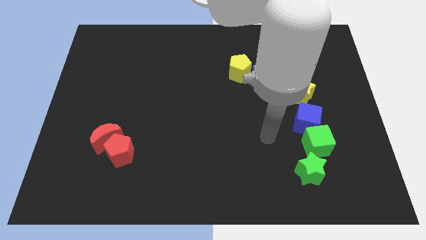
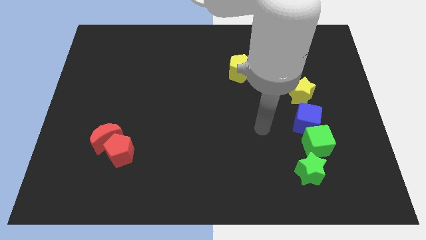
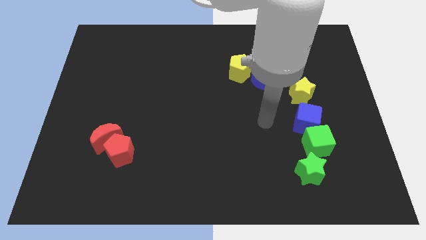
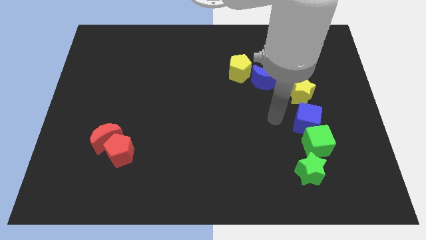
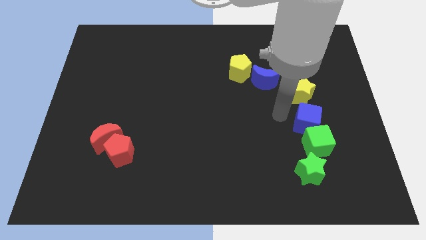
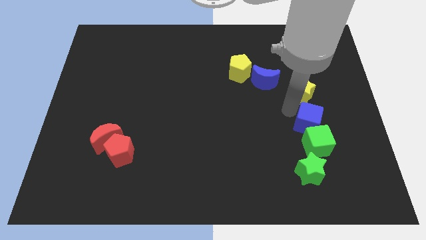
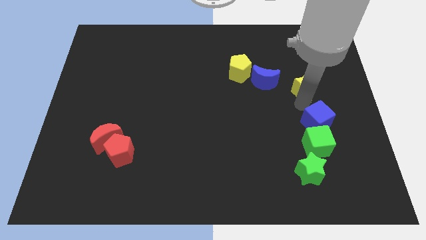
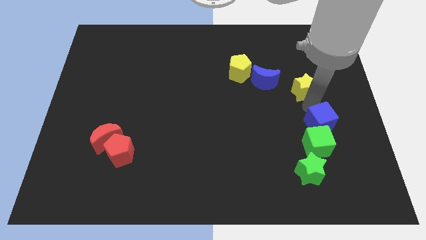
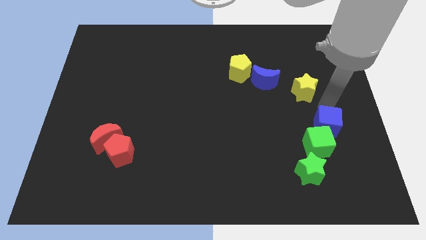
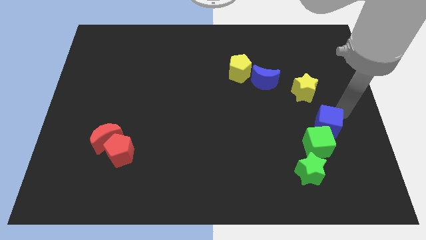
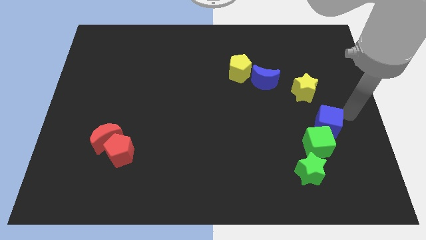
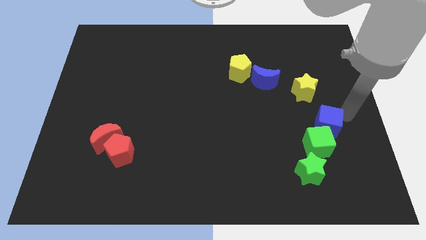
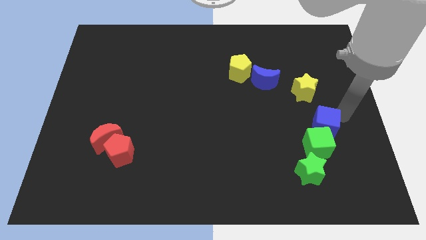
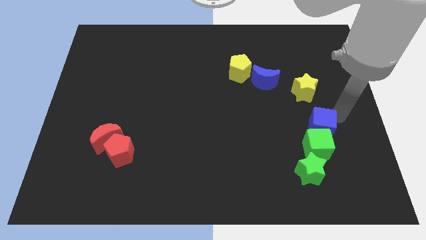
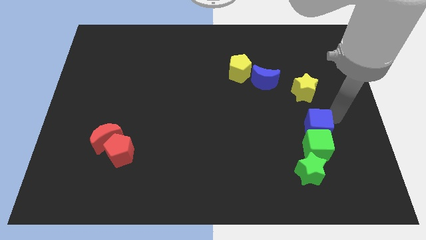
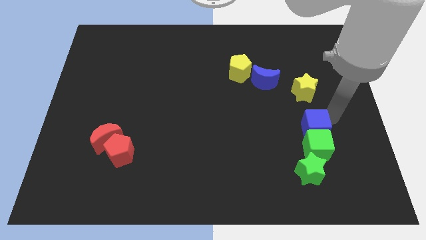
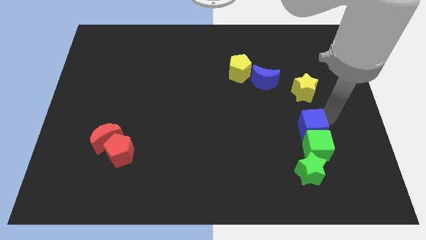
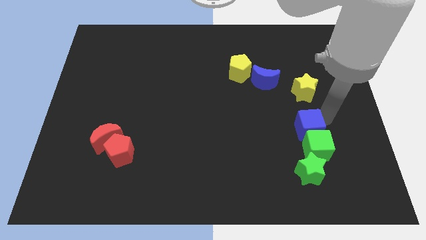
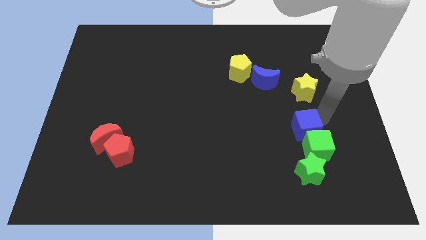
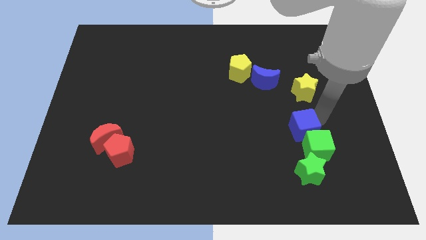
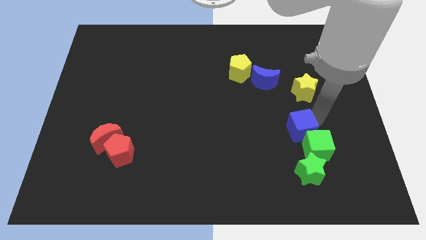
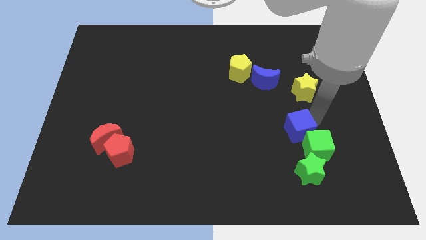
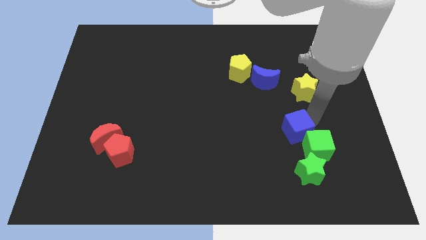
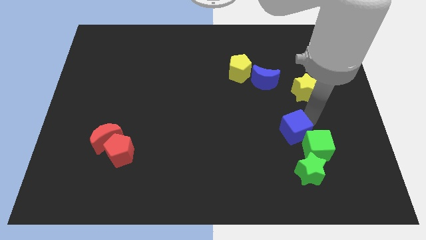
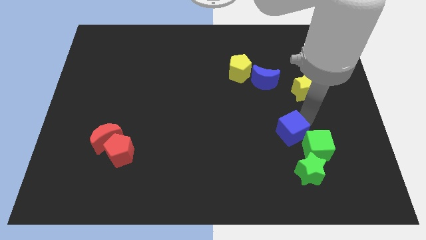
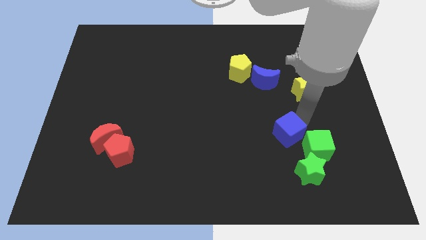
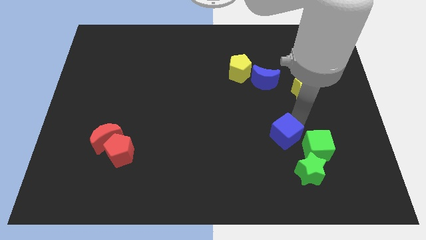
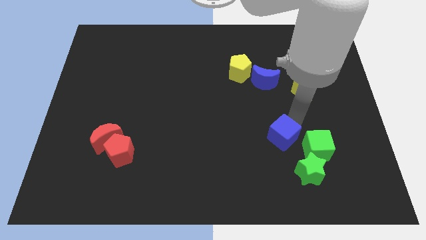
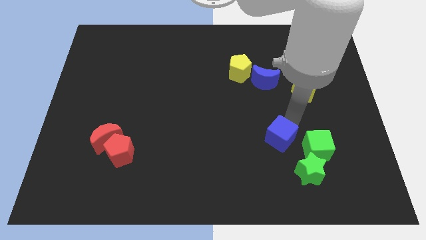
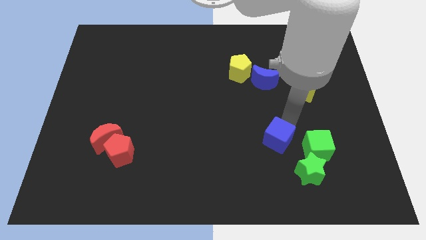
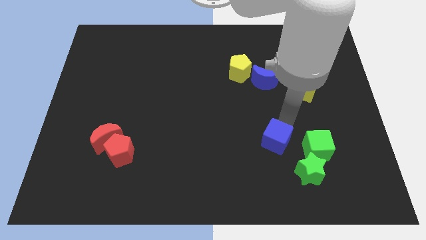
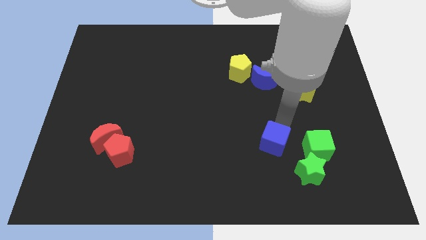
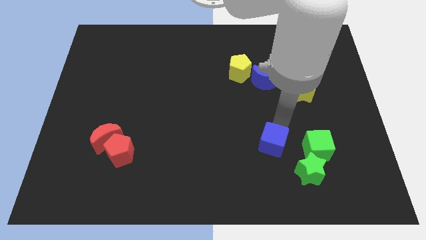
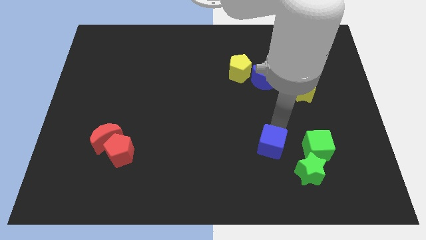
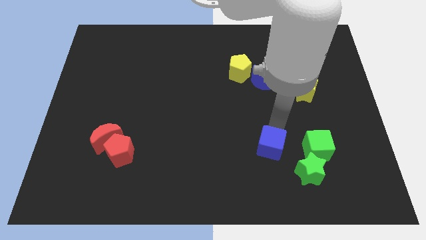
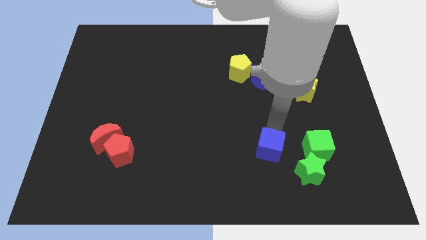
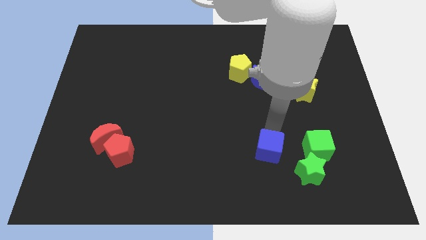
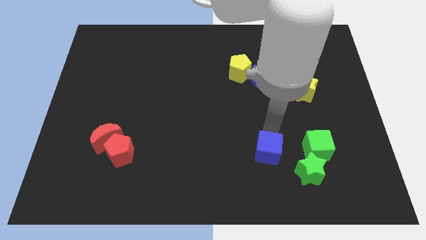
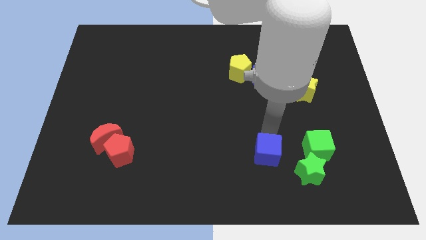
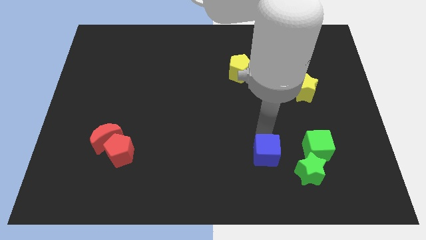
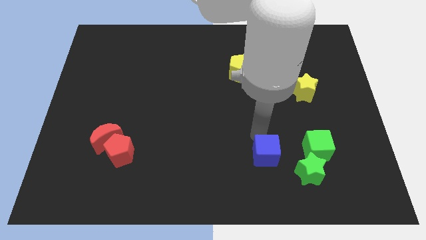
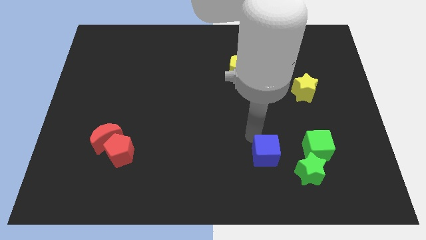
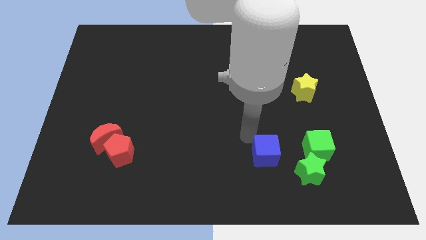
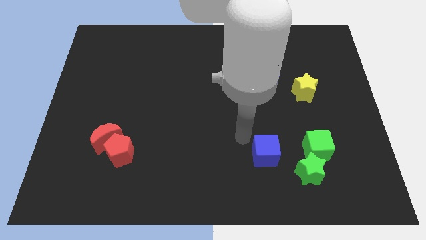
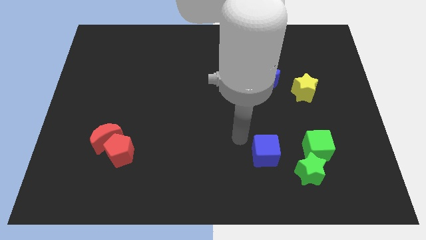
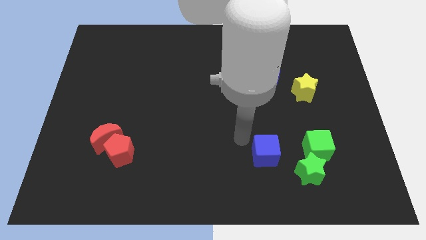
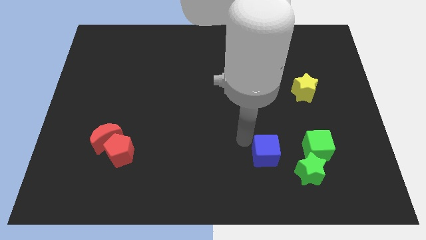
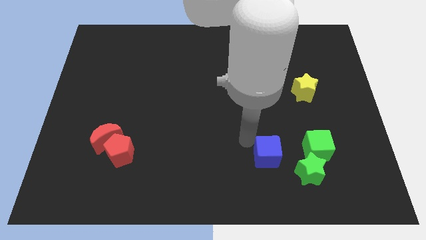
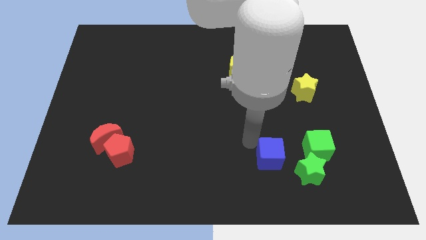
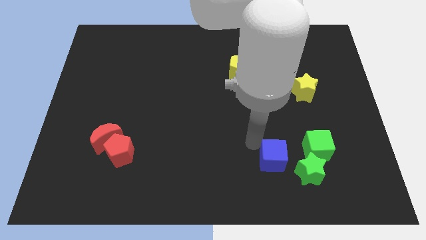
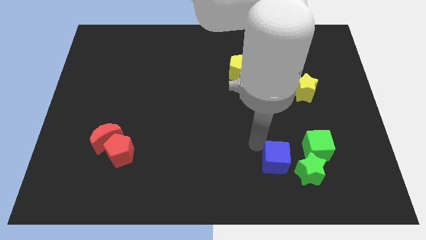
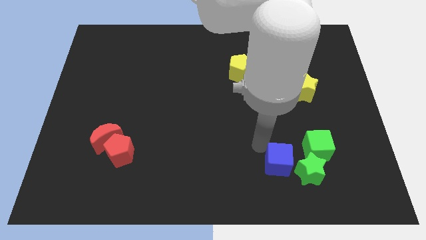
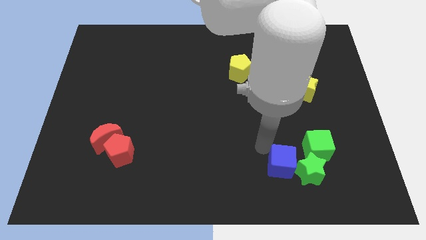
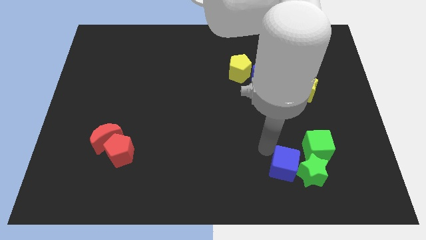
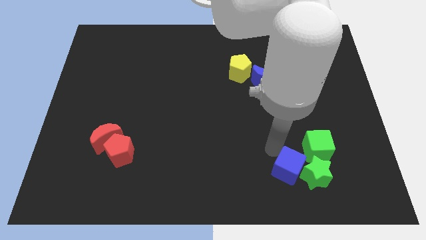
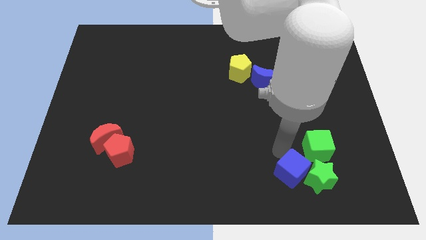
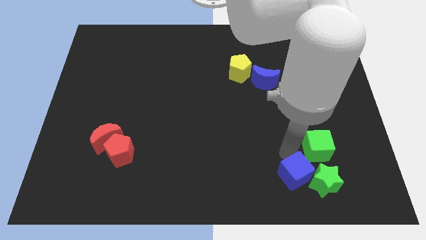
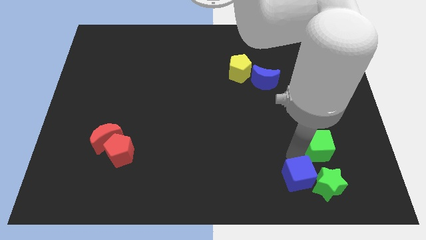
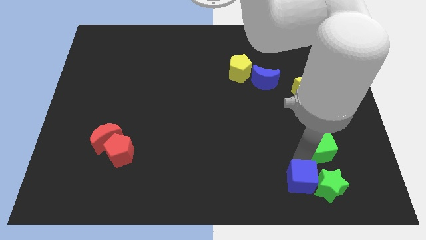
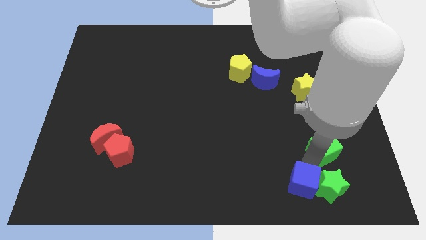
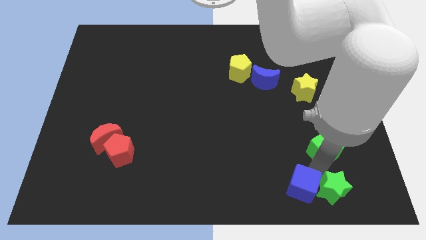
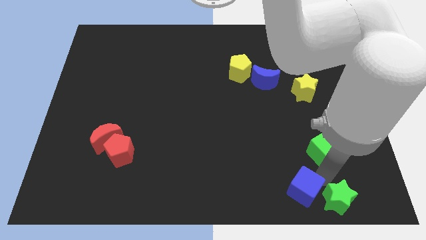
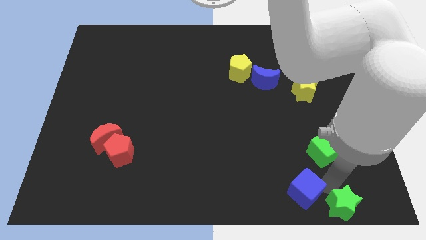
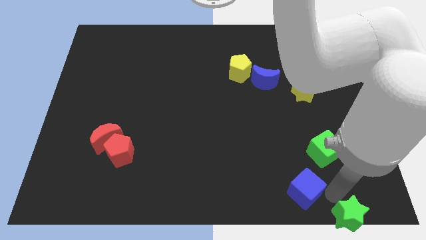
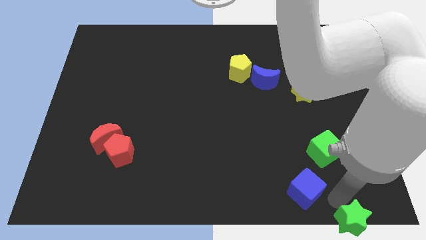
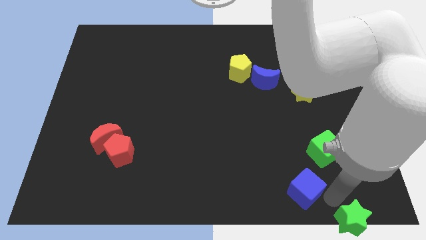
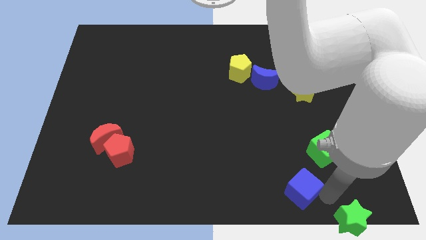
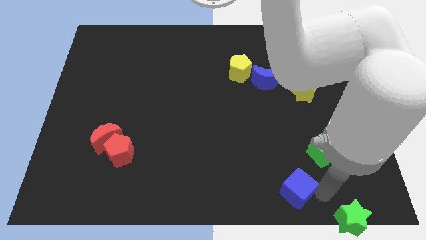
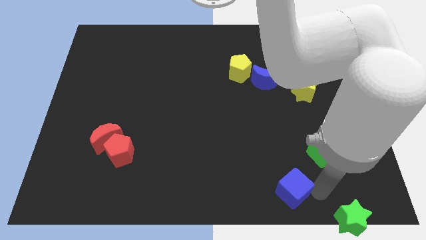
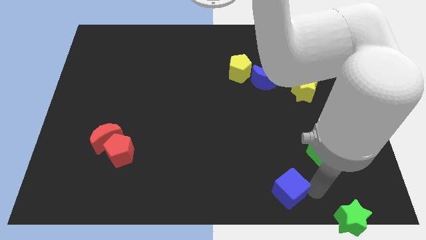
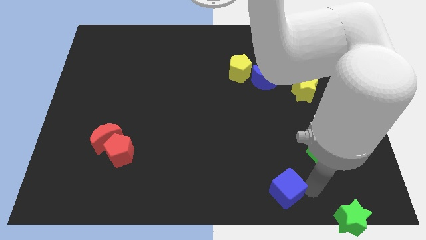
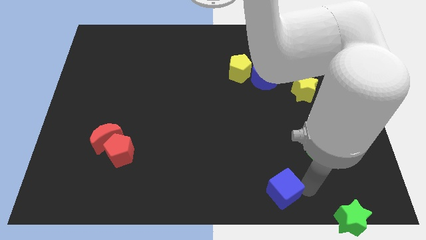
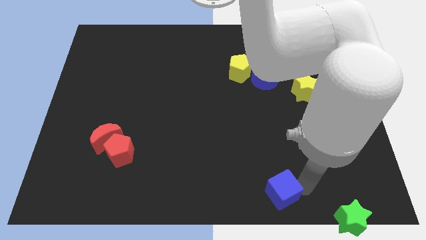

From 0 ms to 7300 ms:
push the blue cube to the bottom
